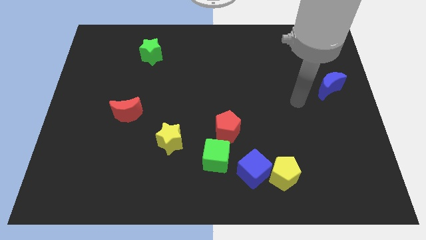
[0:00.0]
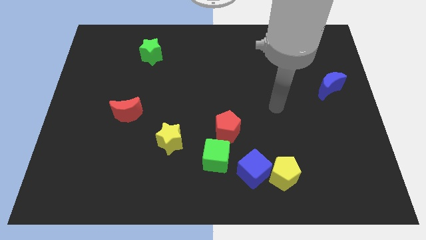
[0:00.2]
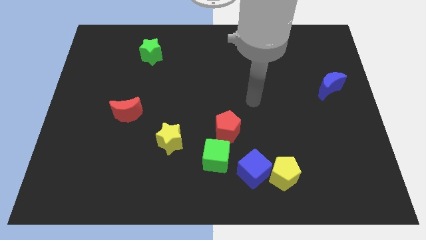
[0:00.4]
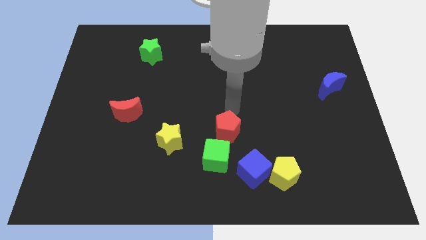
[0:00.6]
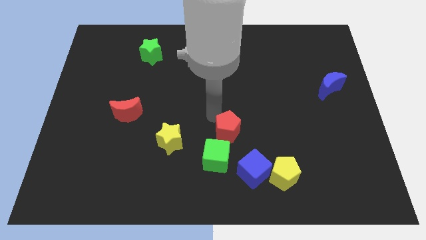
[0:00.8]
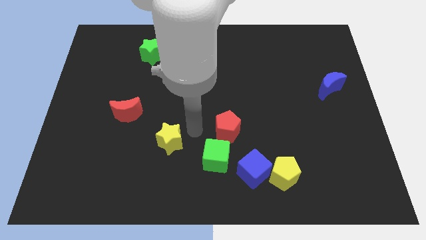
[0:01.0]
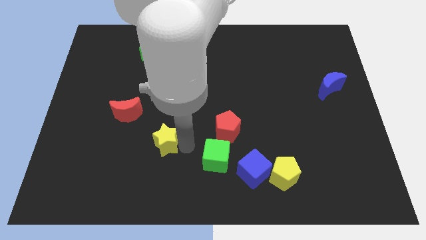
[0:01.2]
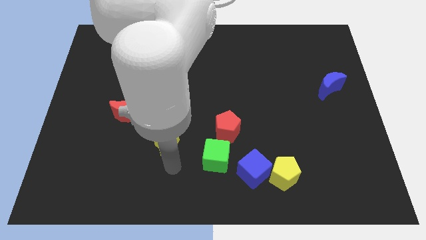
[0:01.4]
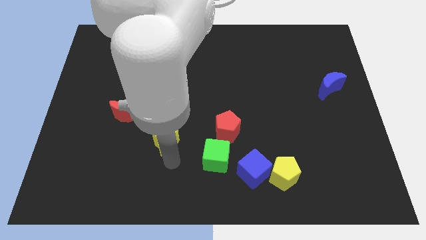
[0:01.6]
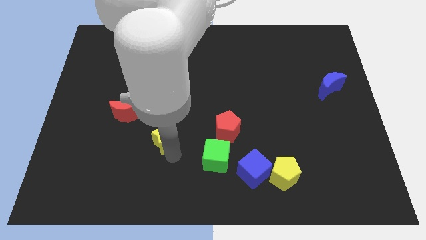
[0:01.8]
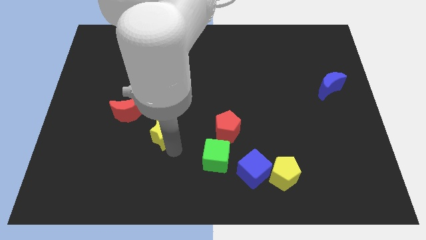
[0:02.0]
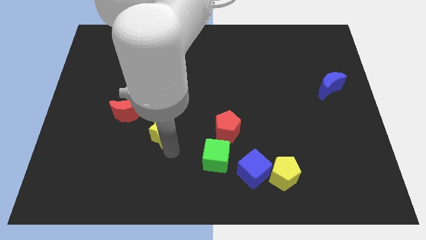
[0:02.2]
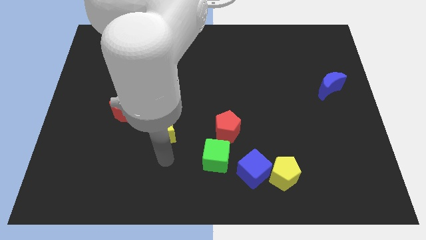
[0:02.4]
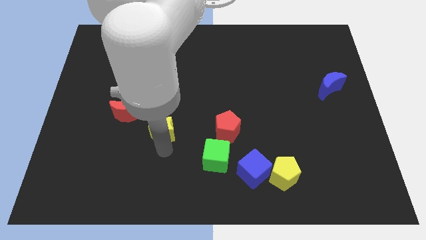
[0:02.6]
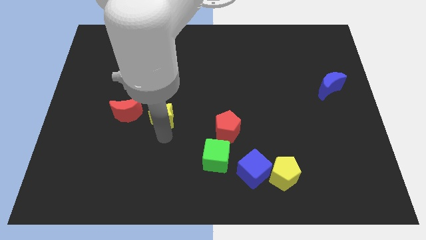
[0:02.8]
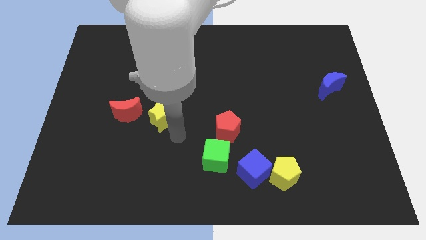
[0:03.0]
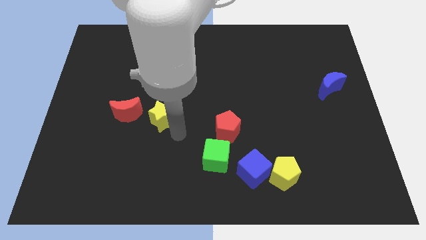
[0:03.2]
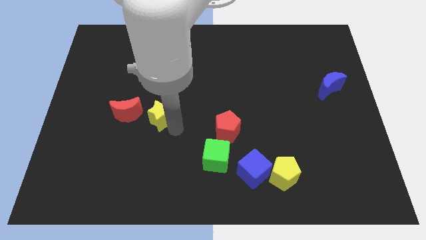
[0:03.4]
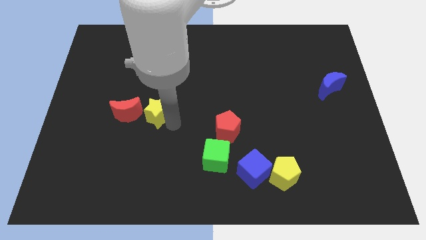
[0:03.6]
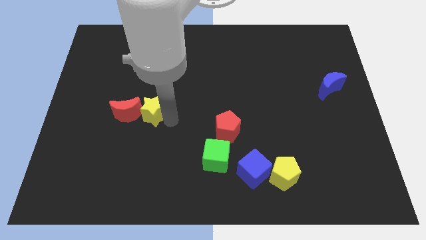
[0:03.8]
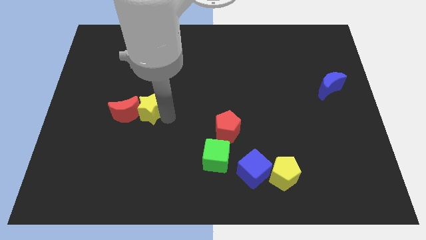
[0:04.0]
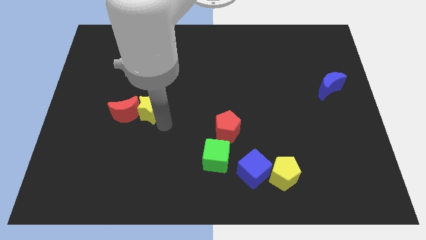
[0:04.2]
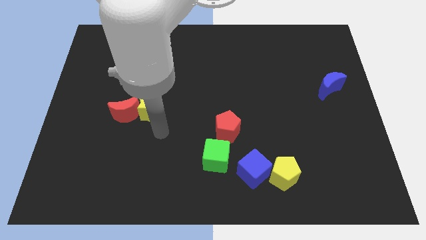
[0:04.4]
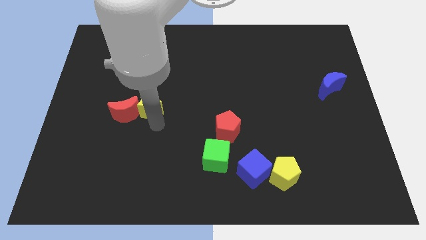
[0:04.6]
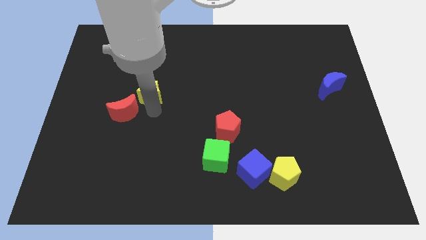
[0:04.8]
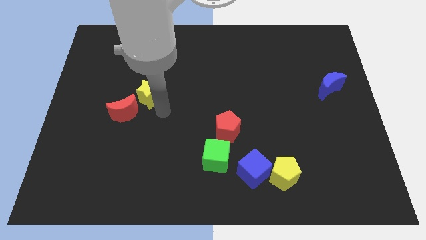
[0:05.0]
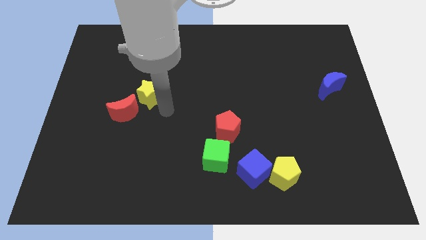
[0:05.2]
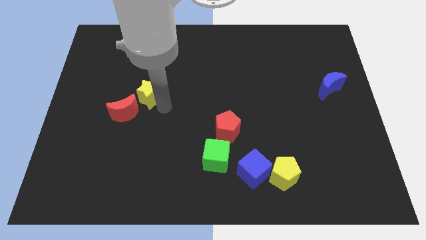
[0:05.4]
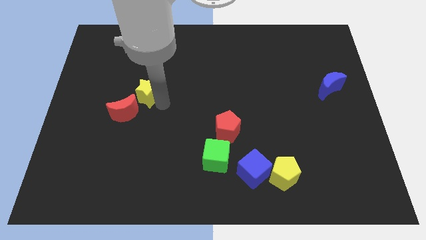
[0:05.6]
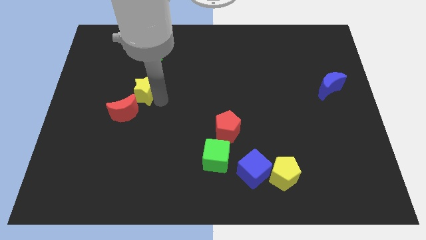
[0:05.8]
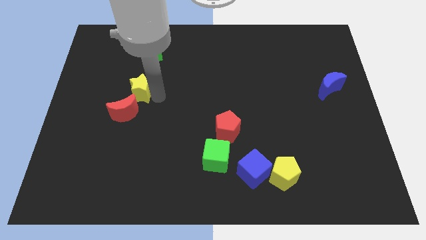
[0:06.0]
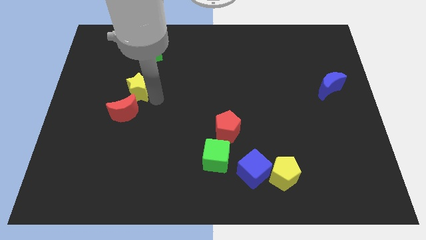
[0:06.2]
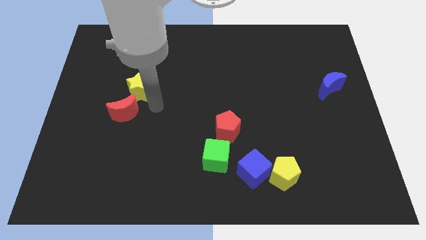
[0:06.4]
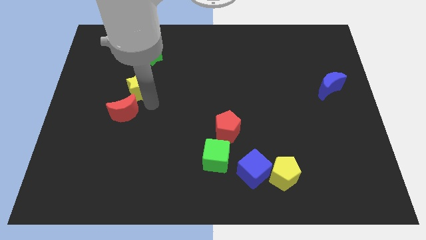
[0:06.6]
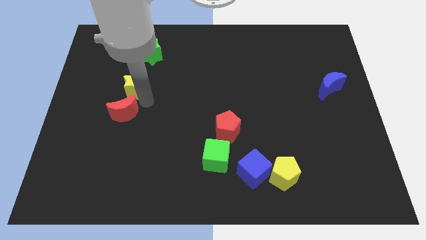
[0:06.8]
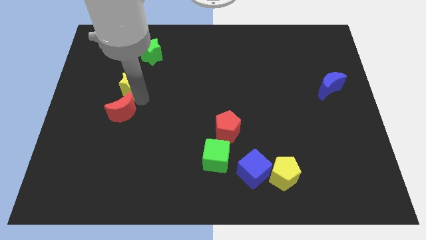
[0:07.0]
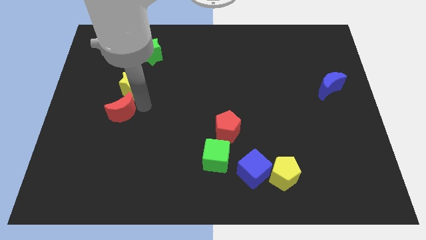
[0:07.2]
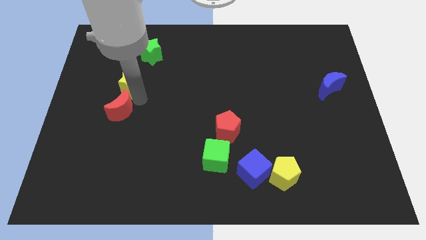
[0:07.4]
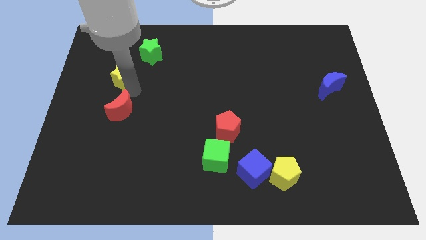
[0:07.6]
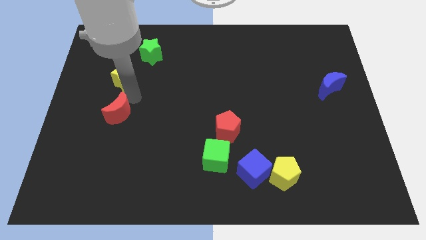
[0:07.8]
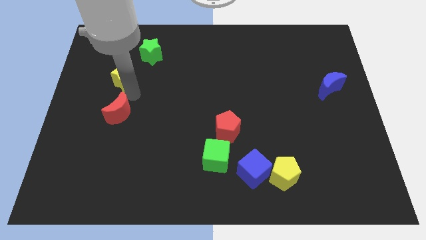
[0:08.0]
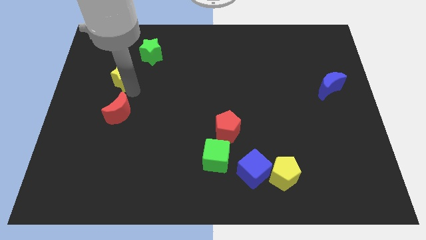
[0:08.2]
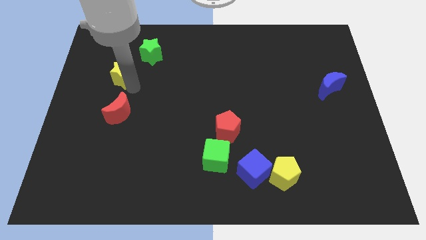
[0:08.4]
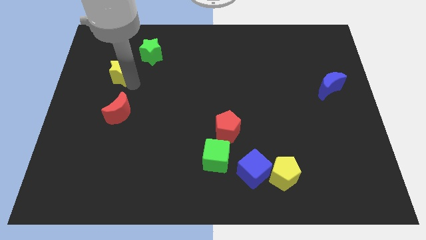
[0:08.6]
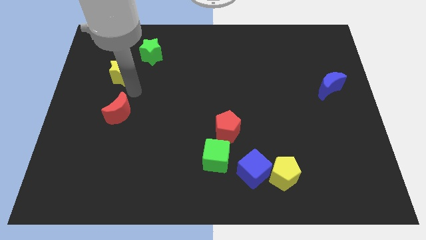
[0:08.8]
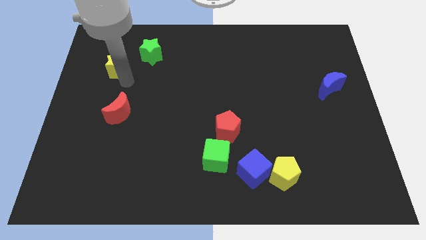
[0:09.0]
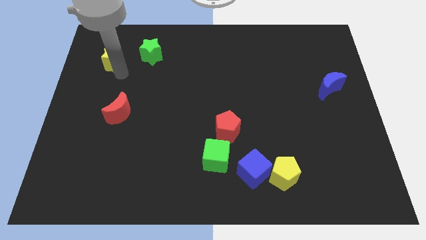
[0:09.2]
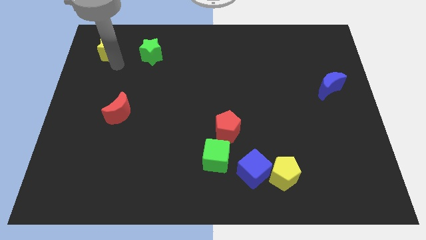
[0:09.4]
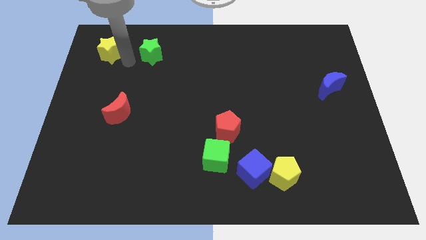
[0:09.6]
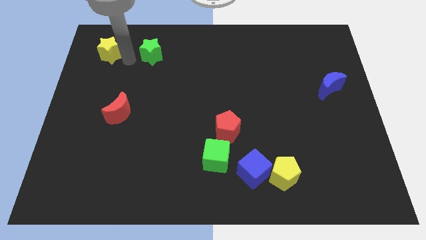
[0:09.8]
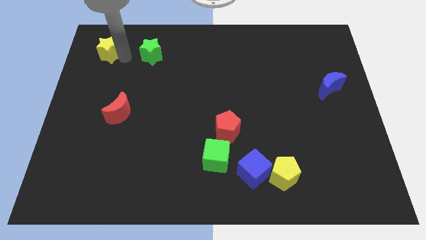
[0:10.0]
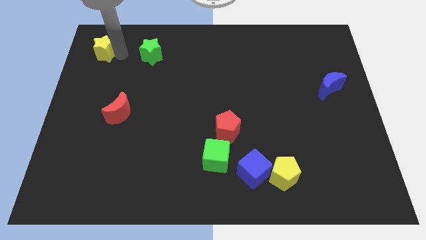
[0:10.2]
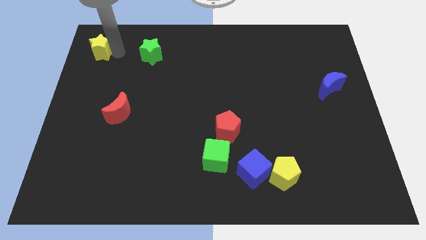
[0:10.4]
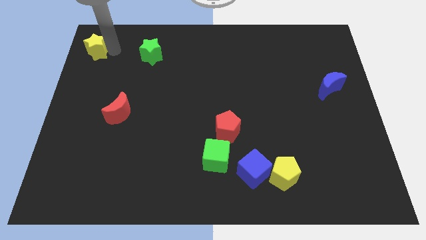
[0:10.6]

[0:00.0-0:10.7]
put the yellow star to the upper left corner

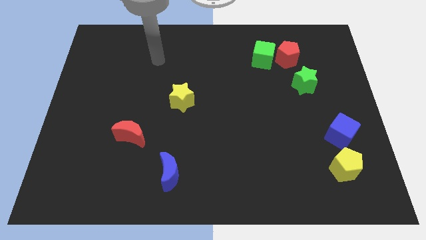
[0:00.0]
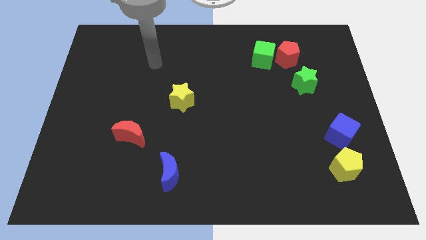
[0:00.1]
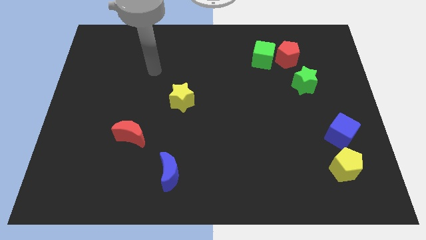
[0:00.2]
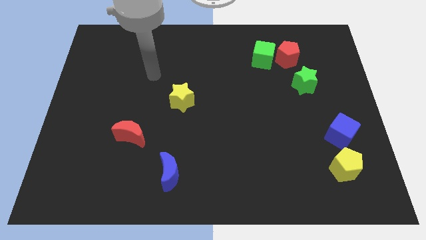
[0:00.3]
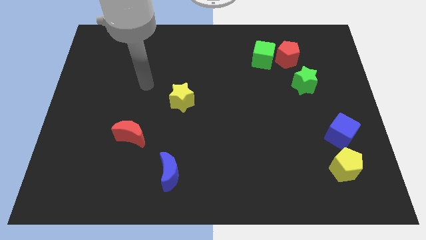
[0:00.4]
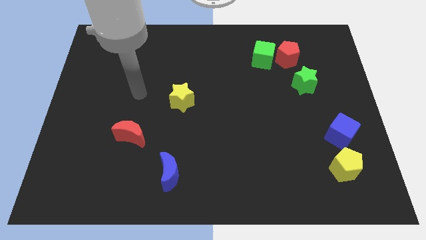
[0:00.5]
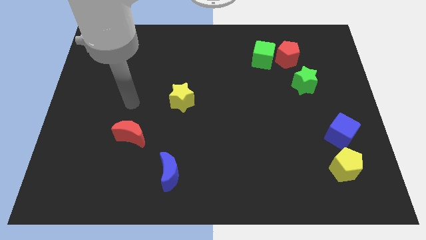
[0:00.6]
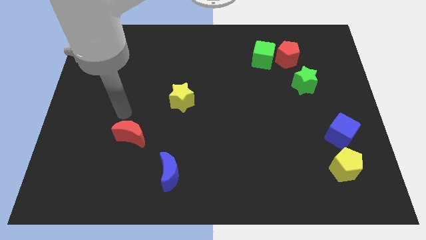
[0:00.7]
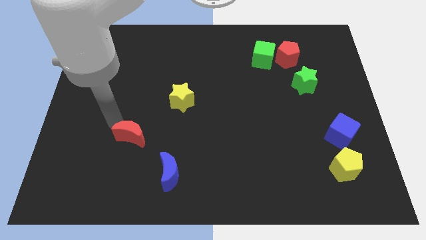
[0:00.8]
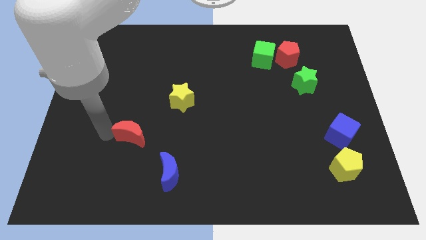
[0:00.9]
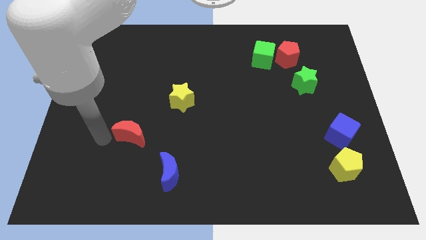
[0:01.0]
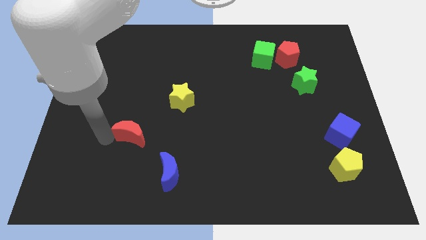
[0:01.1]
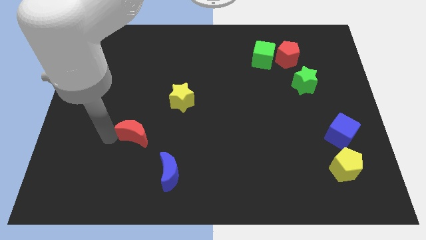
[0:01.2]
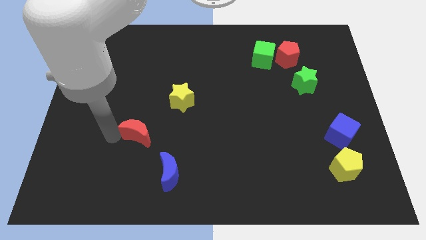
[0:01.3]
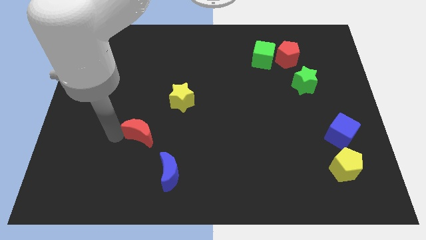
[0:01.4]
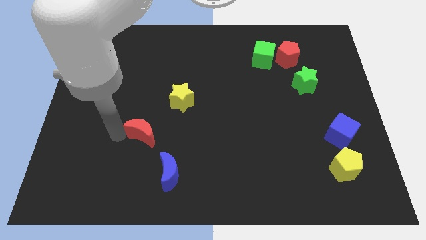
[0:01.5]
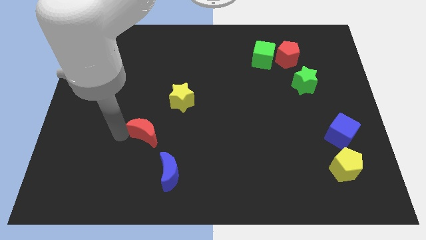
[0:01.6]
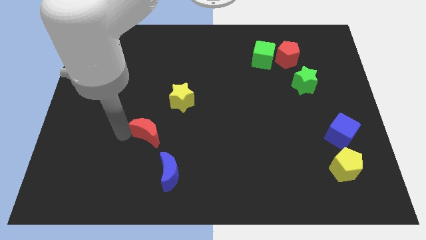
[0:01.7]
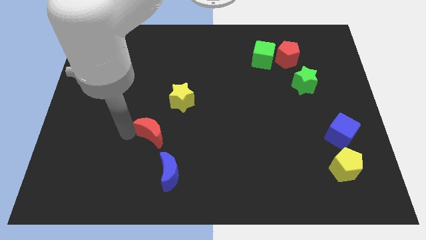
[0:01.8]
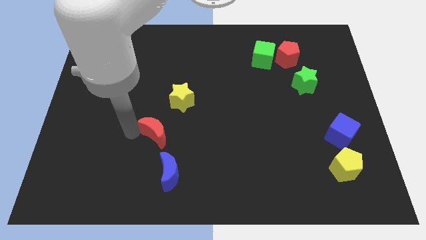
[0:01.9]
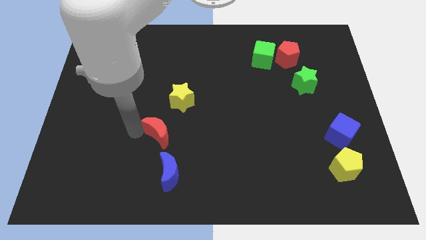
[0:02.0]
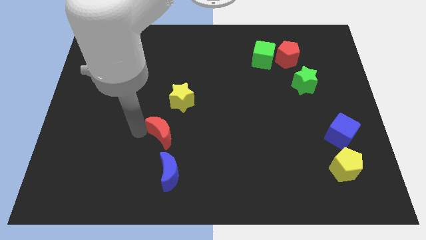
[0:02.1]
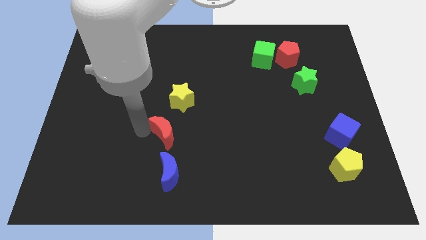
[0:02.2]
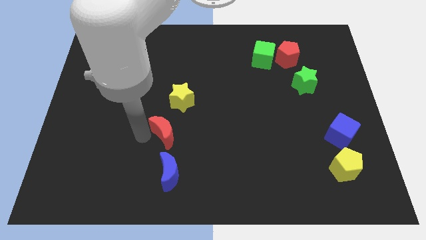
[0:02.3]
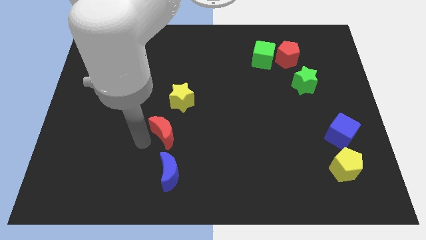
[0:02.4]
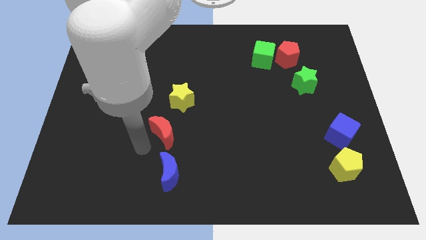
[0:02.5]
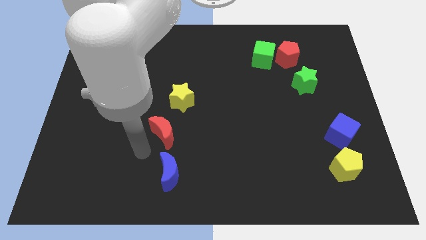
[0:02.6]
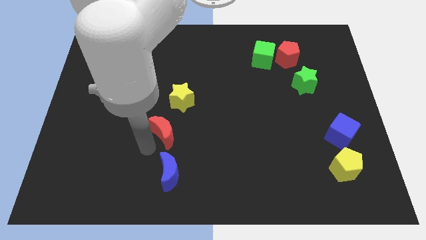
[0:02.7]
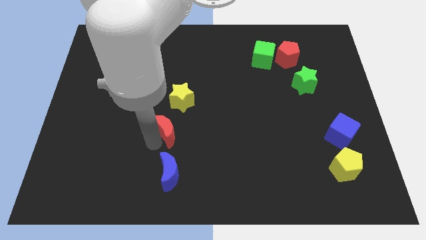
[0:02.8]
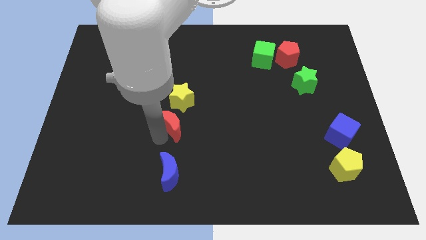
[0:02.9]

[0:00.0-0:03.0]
push the red moon to the middle
